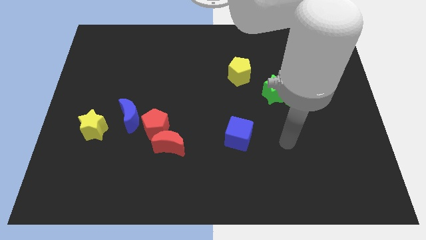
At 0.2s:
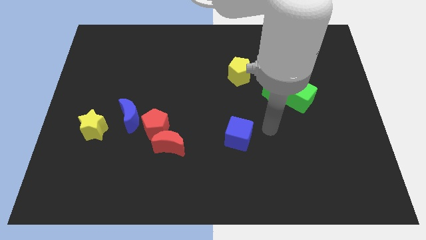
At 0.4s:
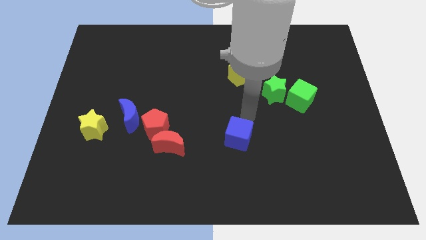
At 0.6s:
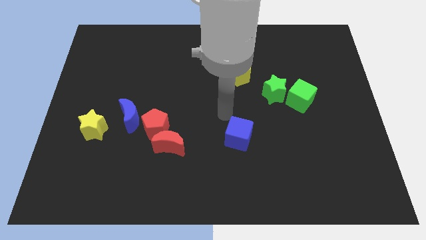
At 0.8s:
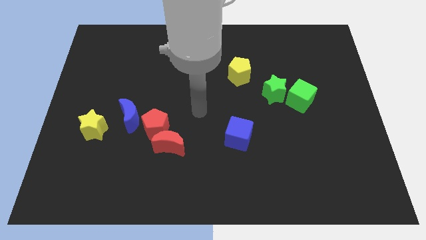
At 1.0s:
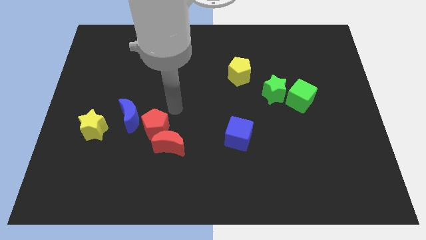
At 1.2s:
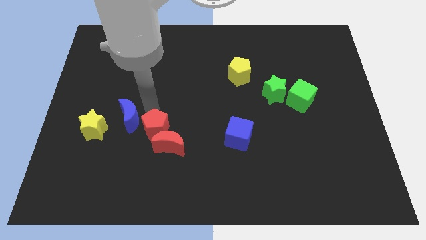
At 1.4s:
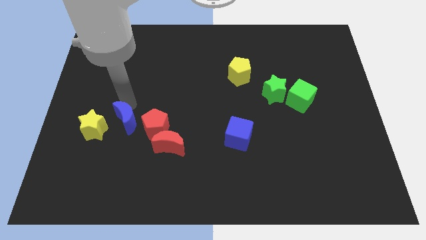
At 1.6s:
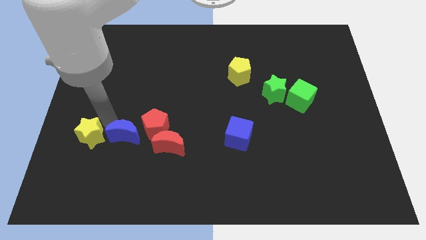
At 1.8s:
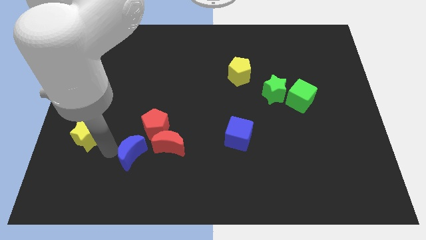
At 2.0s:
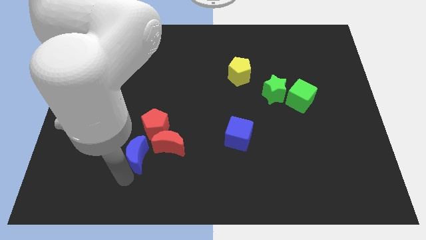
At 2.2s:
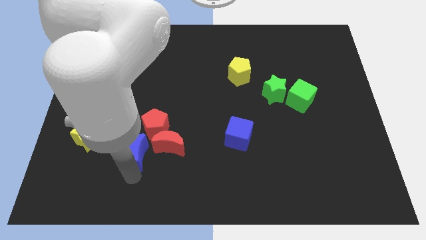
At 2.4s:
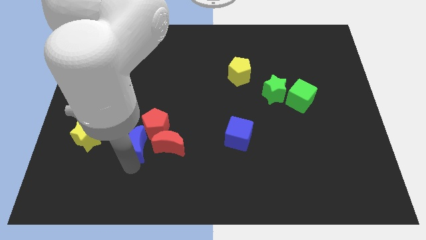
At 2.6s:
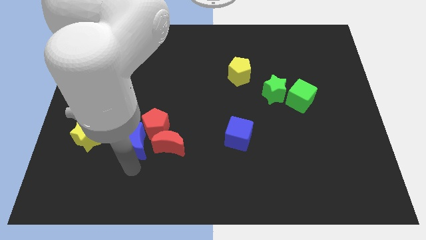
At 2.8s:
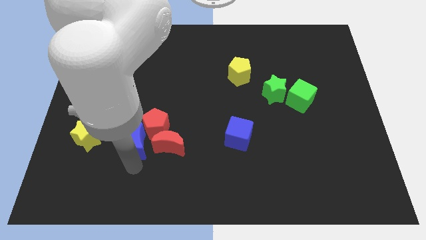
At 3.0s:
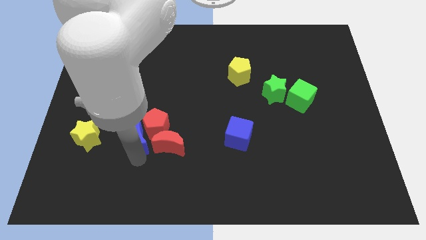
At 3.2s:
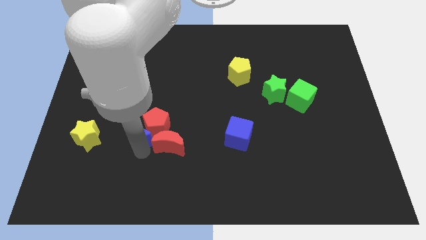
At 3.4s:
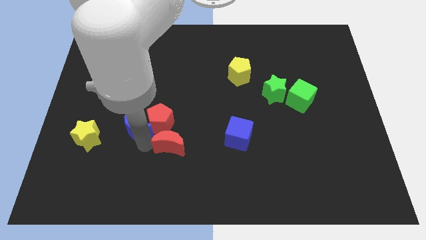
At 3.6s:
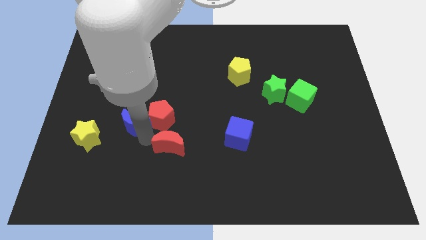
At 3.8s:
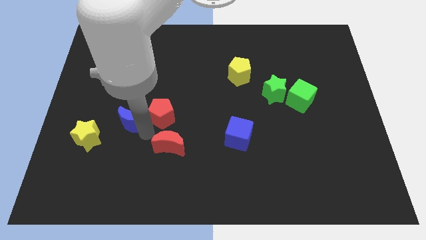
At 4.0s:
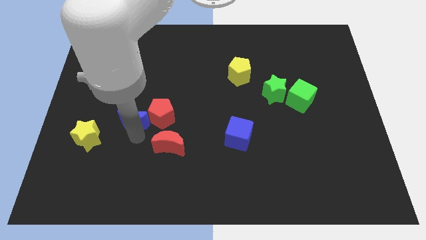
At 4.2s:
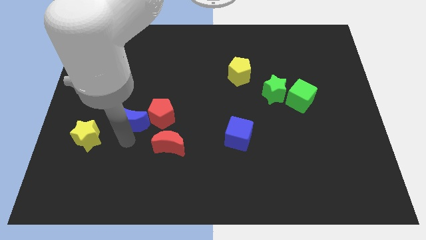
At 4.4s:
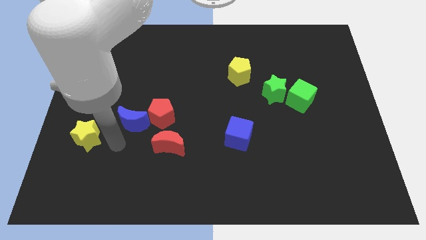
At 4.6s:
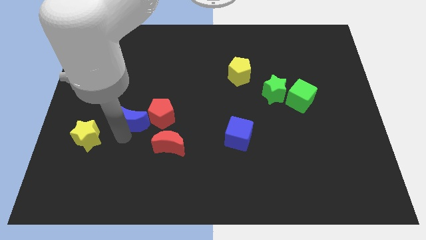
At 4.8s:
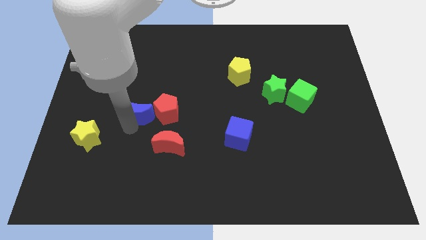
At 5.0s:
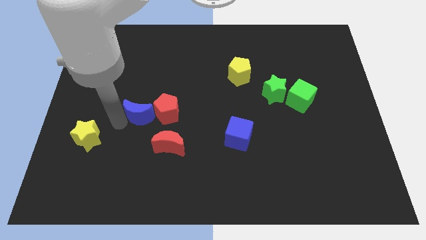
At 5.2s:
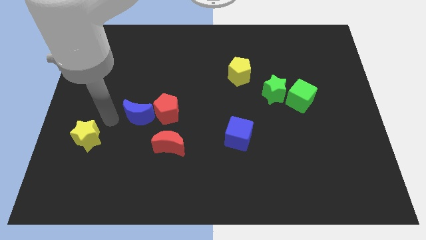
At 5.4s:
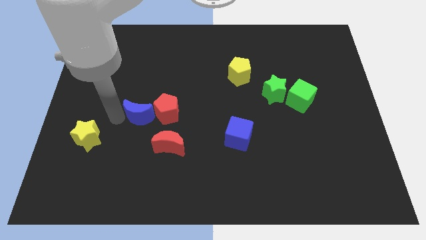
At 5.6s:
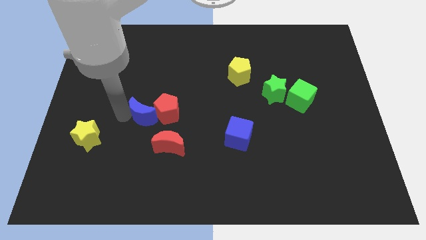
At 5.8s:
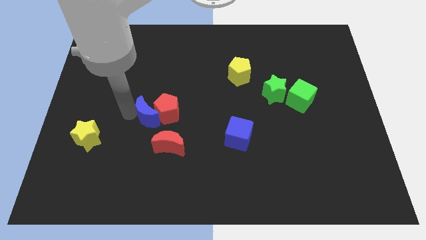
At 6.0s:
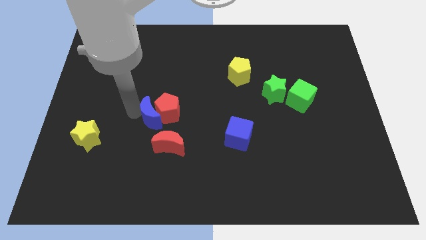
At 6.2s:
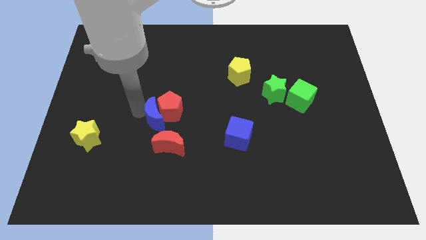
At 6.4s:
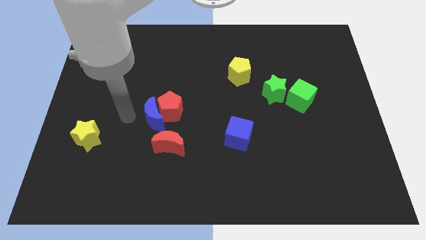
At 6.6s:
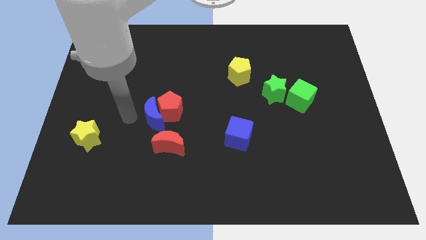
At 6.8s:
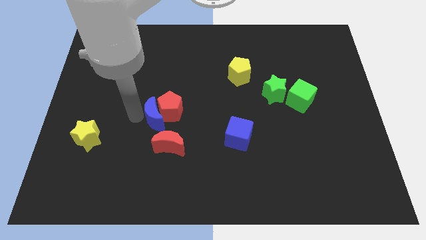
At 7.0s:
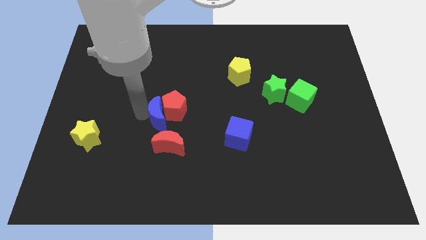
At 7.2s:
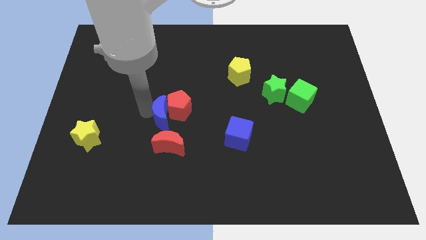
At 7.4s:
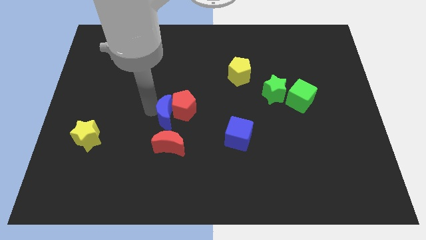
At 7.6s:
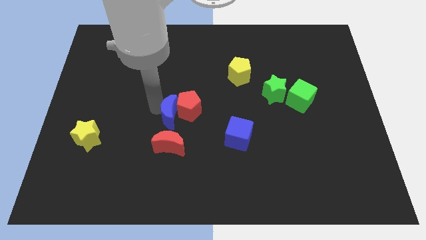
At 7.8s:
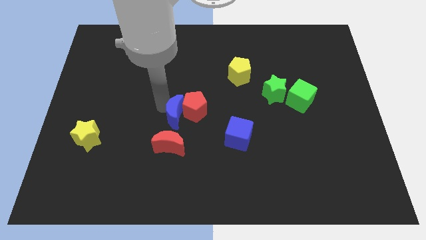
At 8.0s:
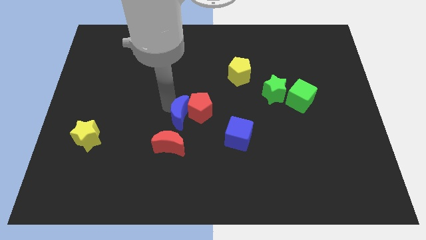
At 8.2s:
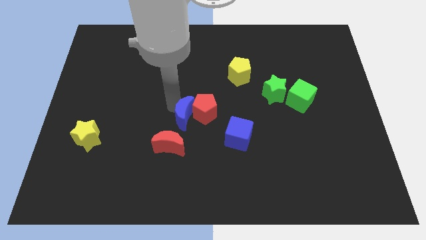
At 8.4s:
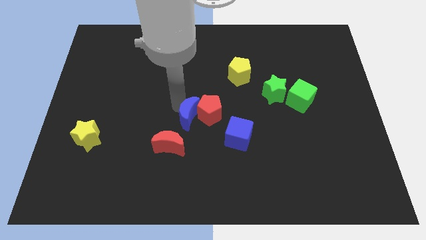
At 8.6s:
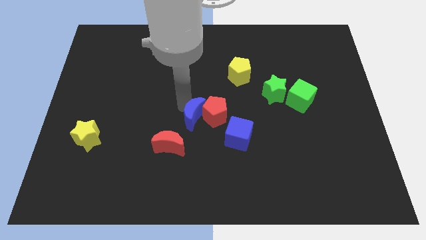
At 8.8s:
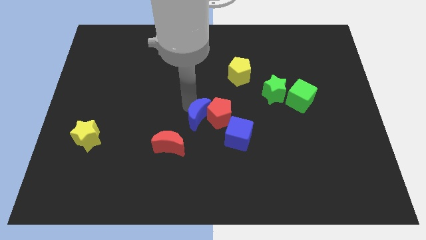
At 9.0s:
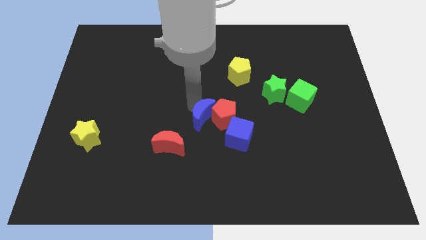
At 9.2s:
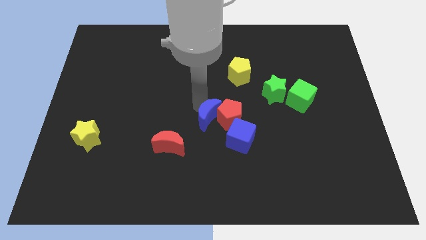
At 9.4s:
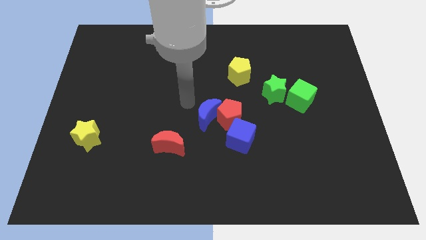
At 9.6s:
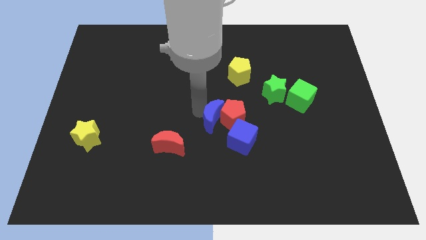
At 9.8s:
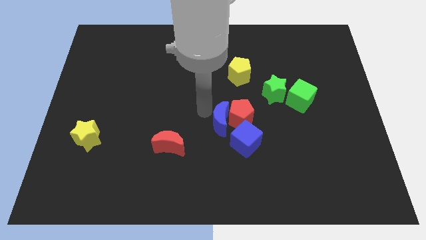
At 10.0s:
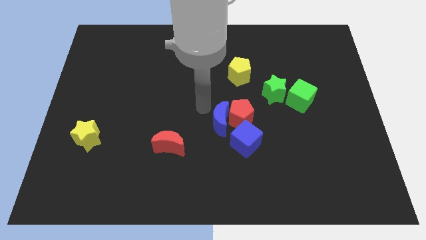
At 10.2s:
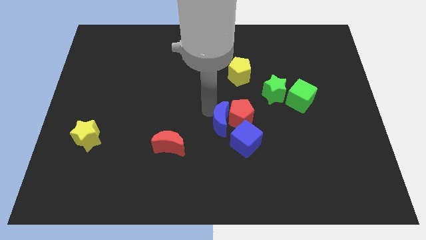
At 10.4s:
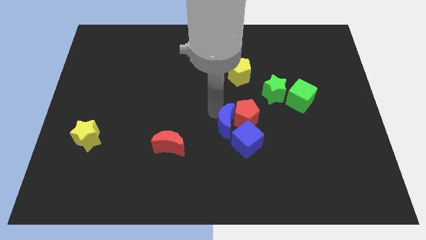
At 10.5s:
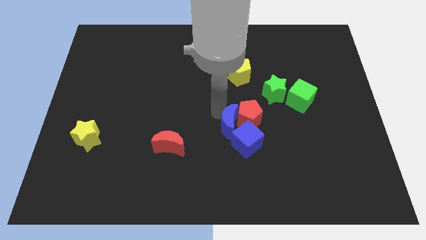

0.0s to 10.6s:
push the blue moon next to the blue cube

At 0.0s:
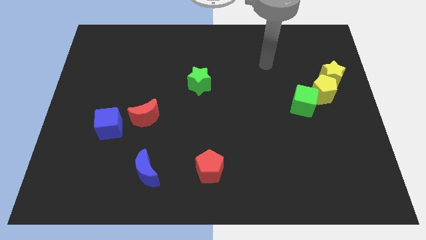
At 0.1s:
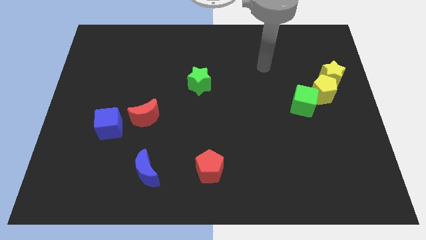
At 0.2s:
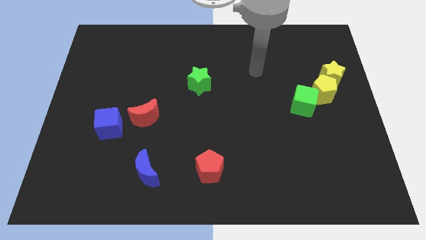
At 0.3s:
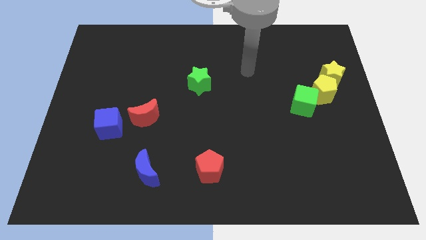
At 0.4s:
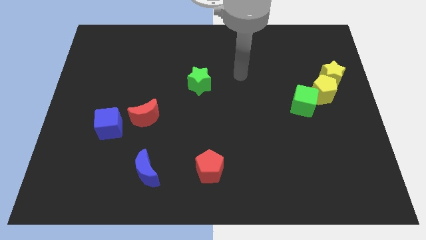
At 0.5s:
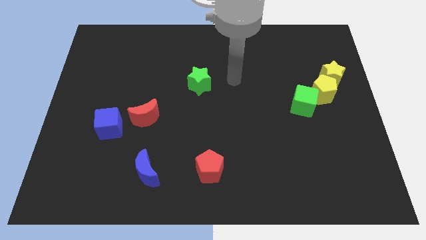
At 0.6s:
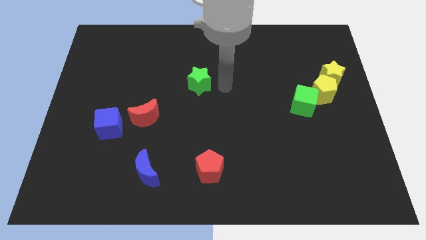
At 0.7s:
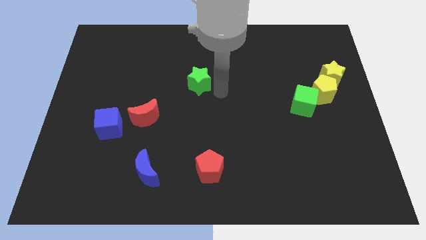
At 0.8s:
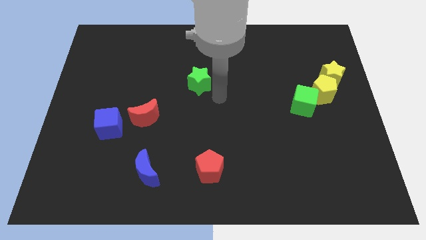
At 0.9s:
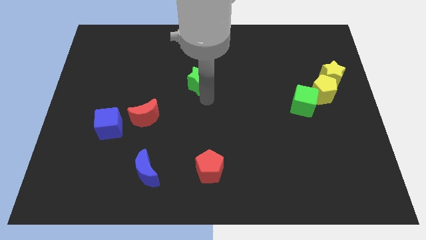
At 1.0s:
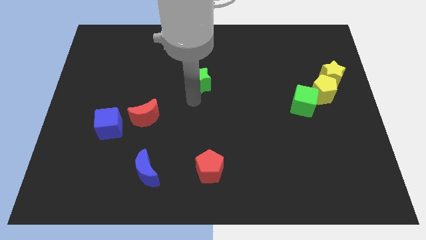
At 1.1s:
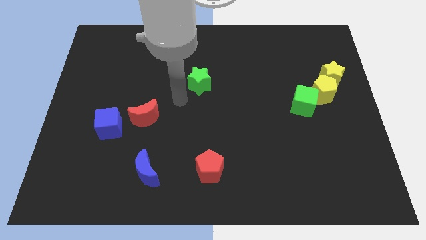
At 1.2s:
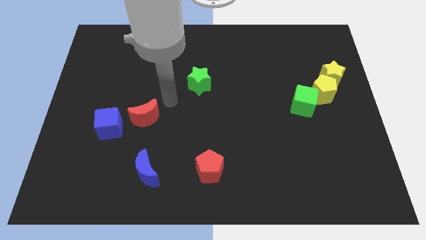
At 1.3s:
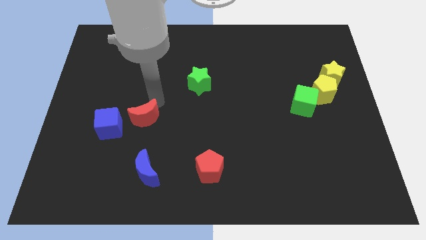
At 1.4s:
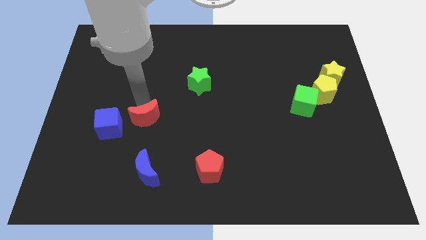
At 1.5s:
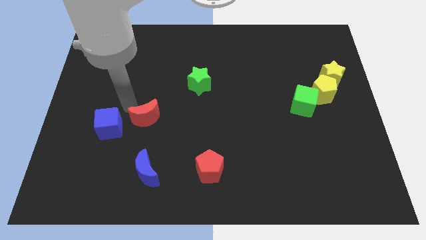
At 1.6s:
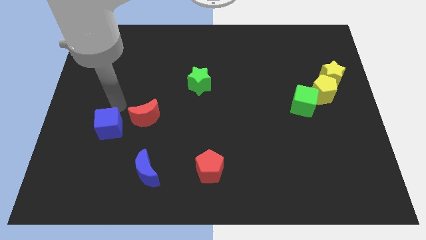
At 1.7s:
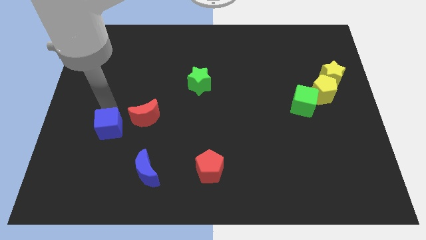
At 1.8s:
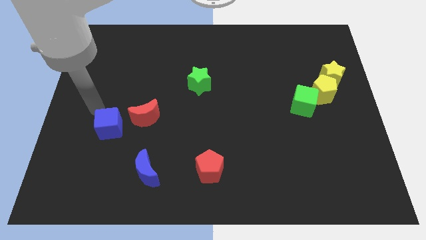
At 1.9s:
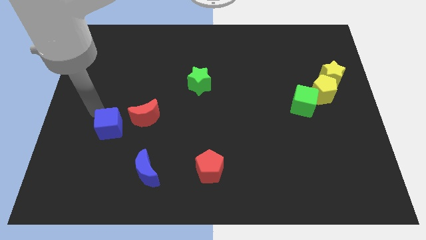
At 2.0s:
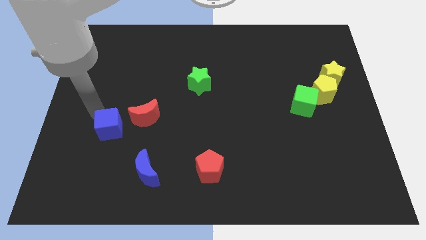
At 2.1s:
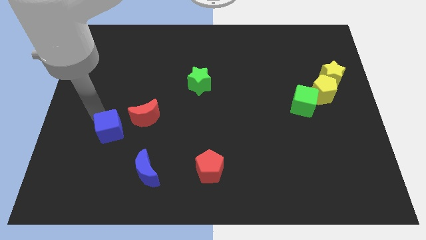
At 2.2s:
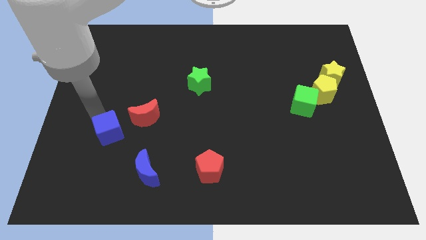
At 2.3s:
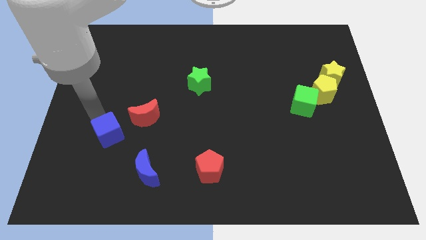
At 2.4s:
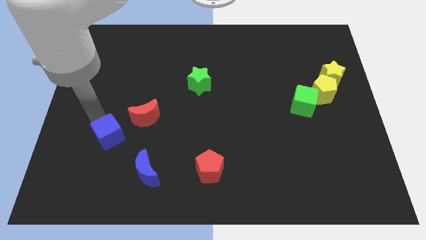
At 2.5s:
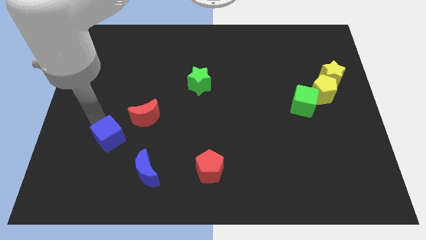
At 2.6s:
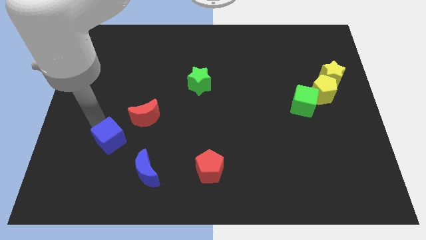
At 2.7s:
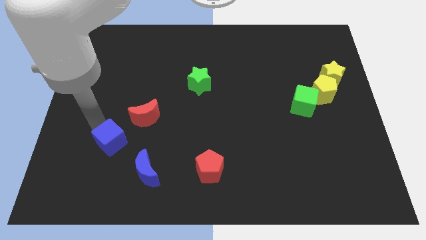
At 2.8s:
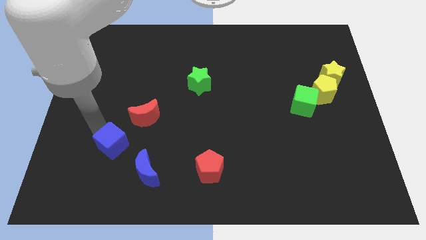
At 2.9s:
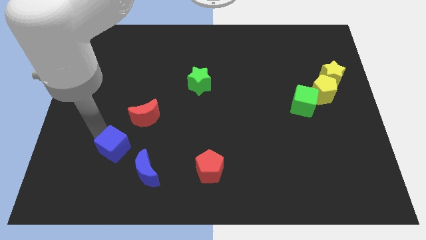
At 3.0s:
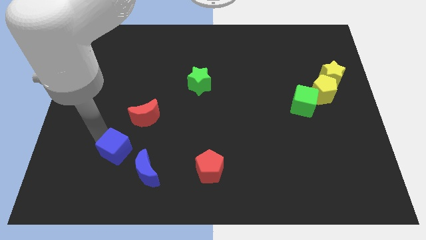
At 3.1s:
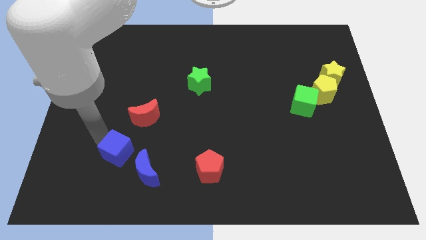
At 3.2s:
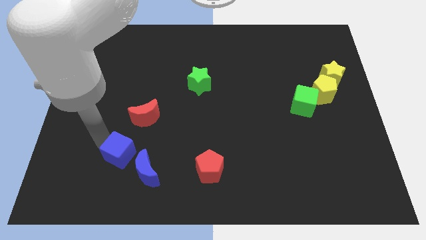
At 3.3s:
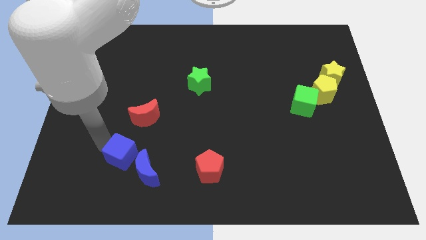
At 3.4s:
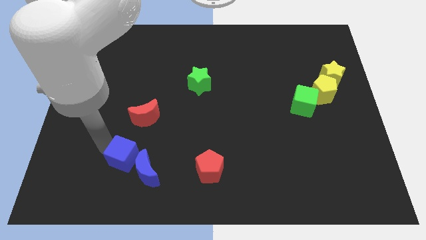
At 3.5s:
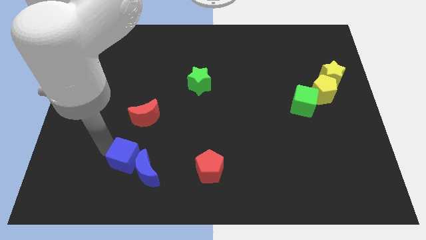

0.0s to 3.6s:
slide the blue cube next to the blue moon
